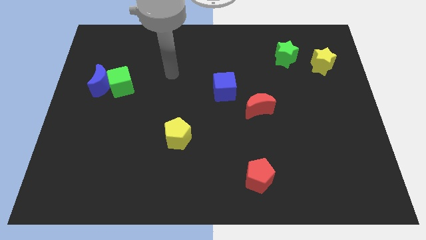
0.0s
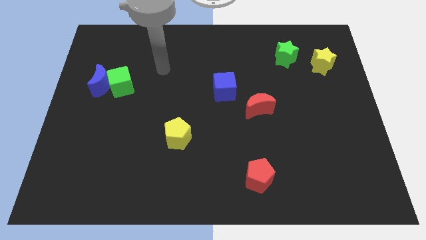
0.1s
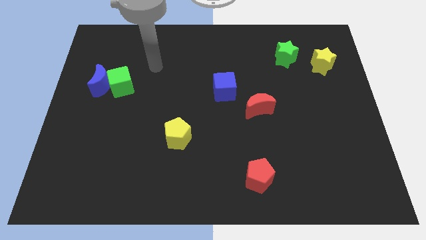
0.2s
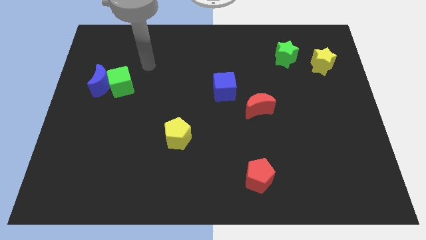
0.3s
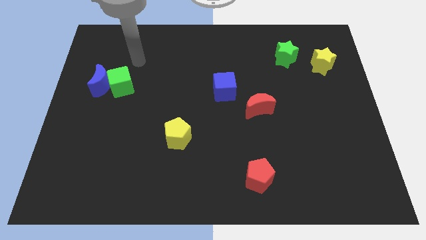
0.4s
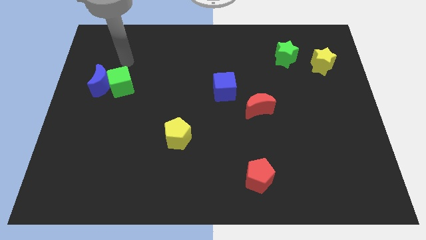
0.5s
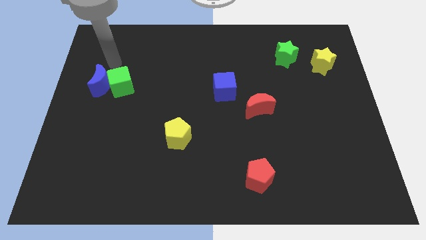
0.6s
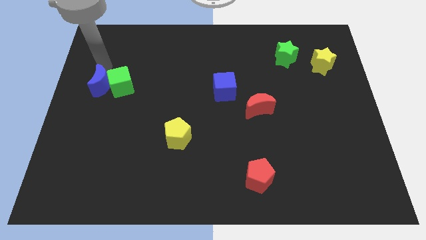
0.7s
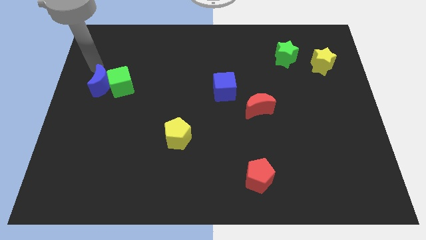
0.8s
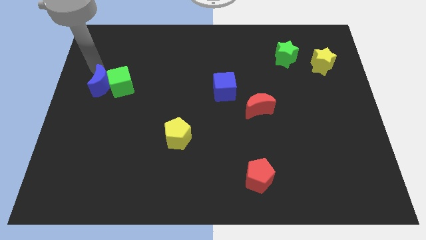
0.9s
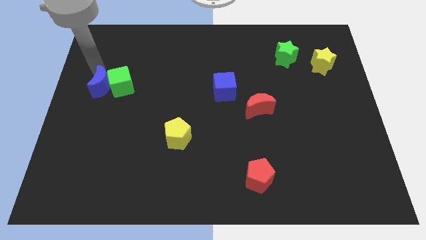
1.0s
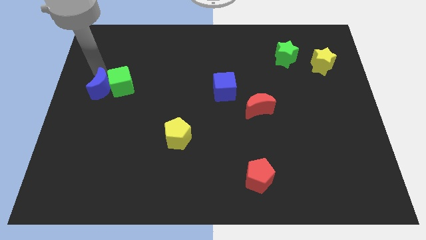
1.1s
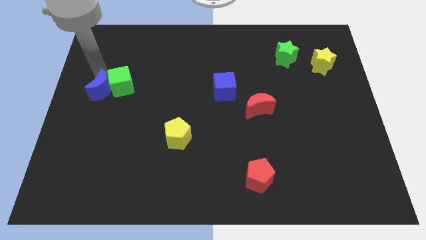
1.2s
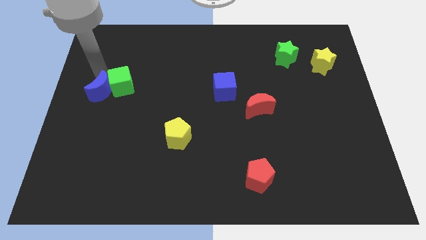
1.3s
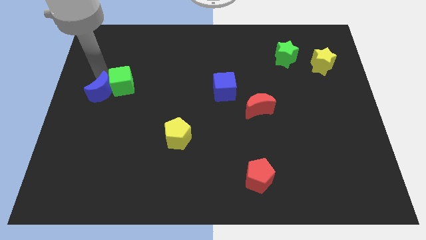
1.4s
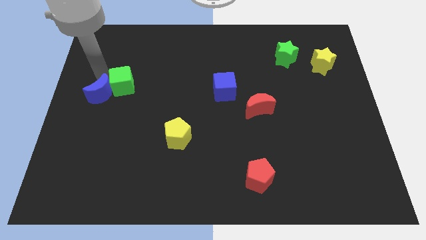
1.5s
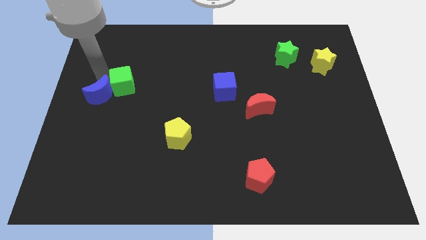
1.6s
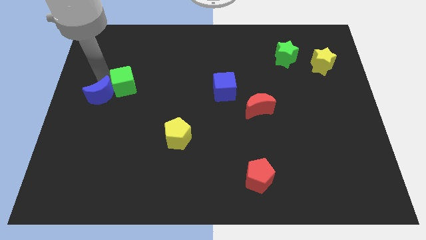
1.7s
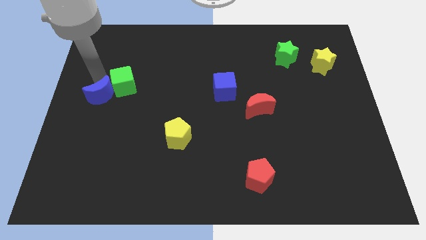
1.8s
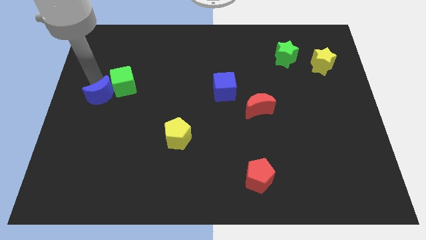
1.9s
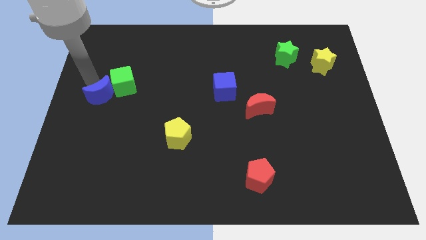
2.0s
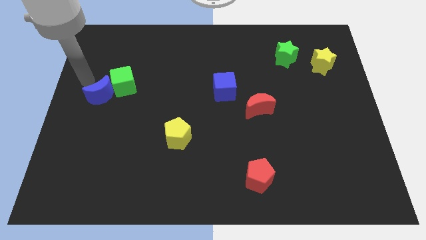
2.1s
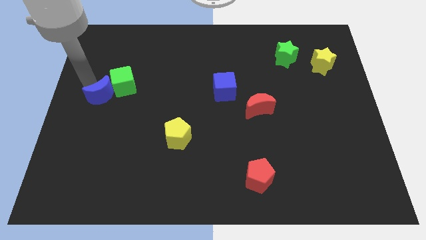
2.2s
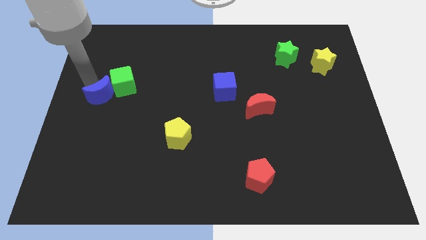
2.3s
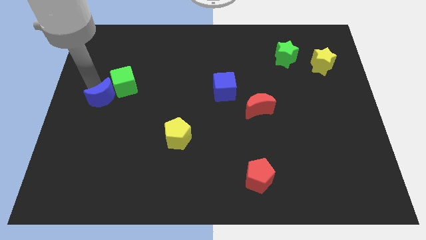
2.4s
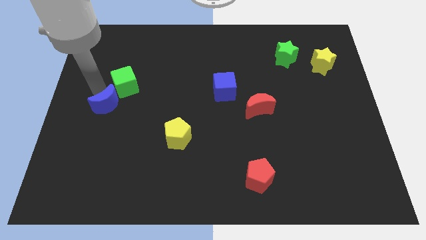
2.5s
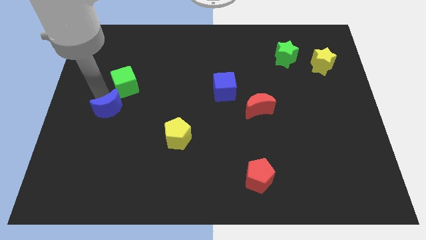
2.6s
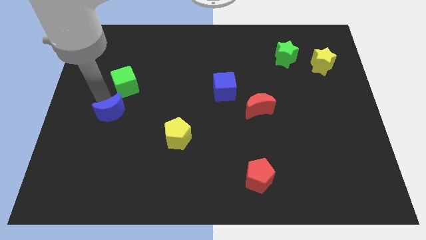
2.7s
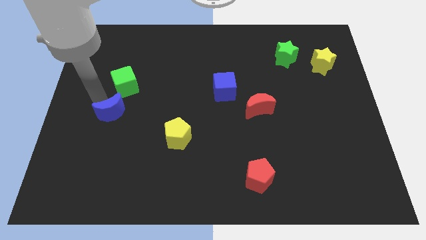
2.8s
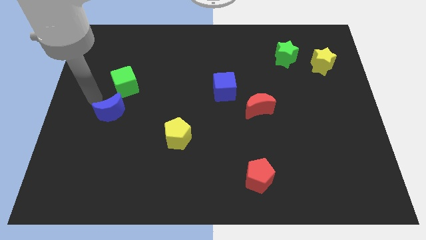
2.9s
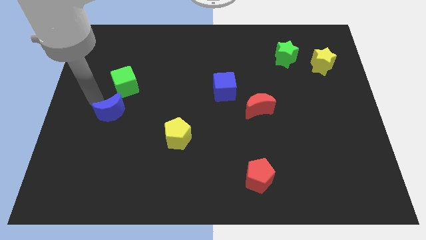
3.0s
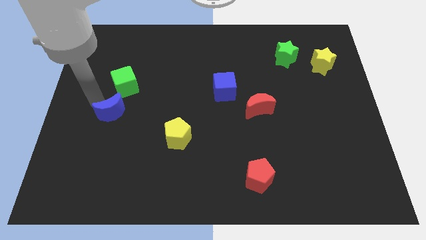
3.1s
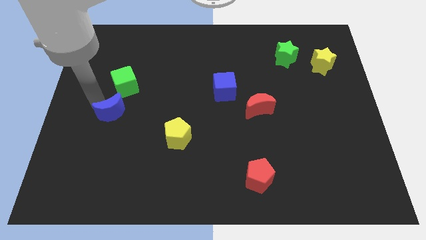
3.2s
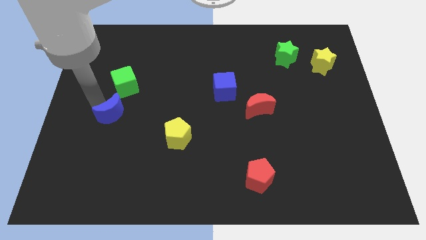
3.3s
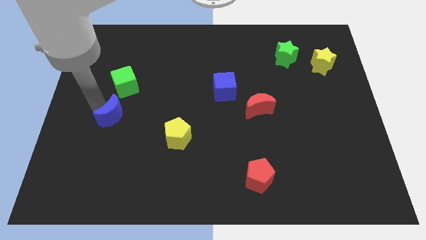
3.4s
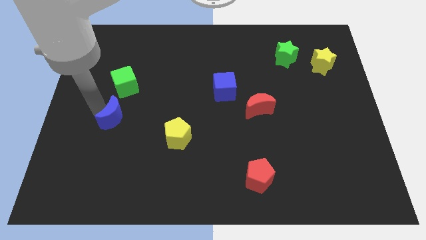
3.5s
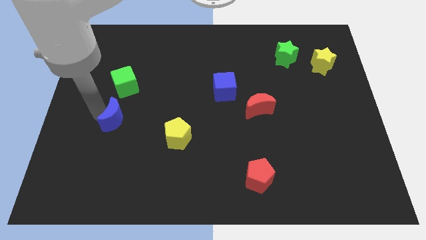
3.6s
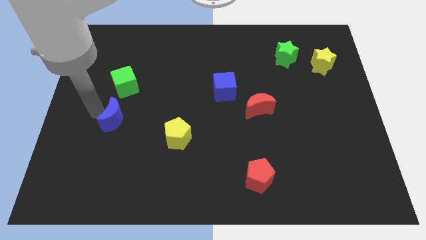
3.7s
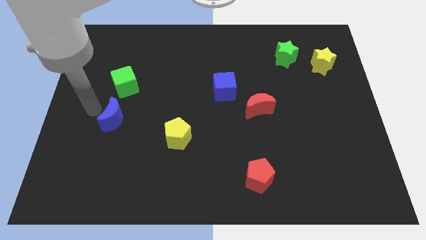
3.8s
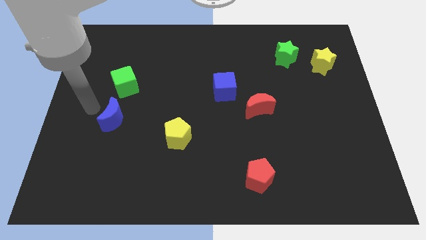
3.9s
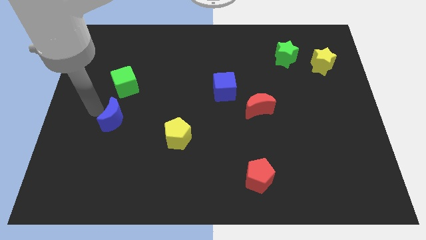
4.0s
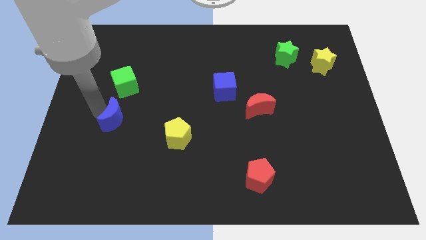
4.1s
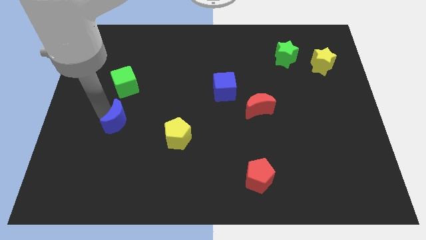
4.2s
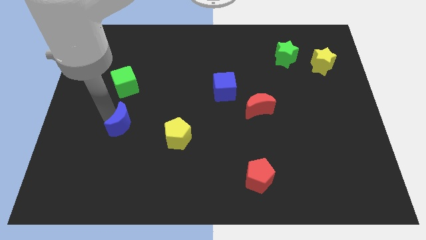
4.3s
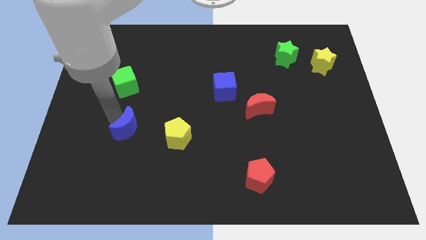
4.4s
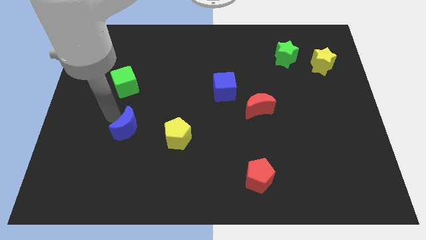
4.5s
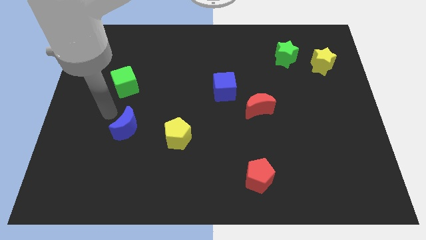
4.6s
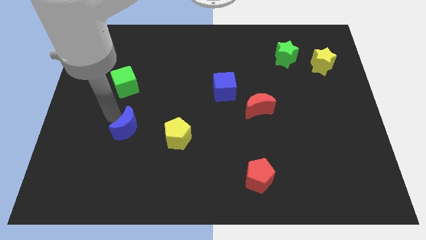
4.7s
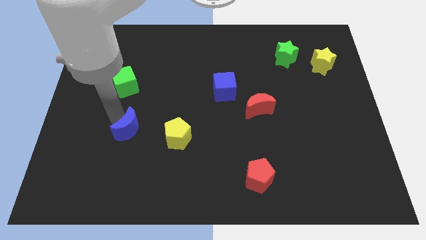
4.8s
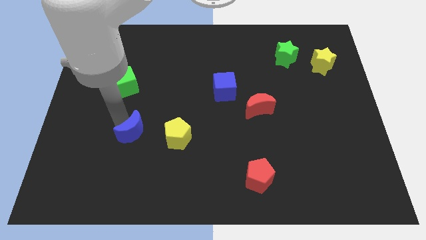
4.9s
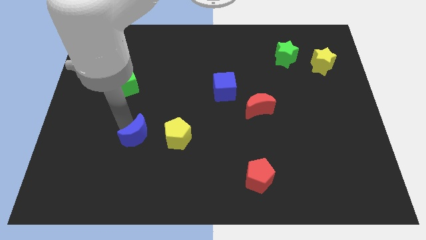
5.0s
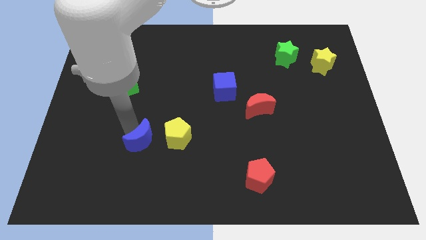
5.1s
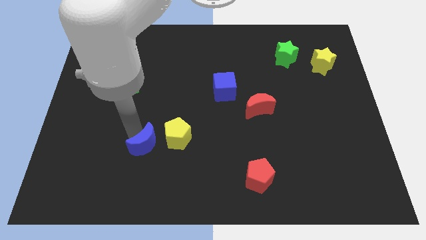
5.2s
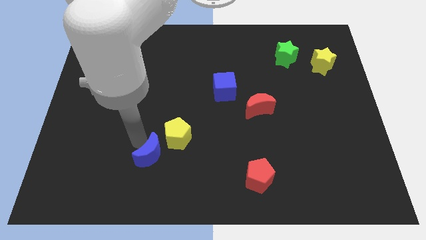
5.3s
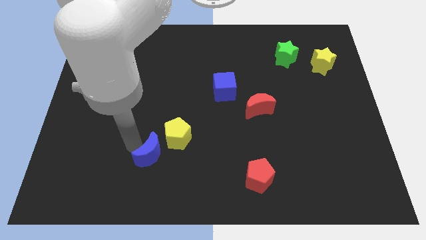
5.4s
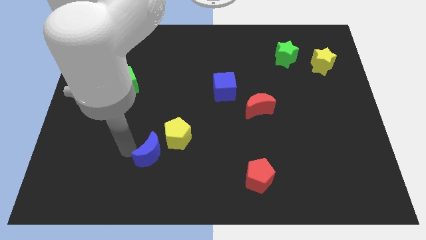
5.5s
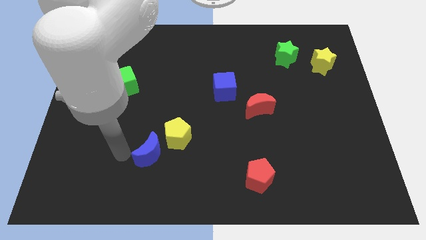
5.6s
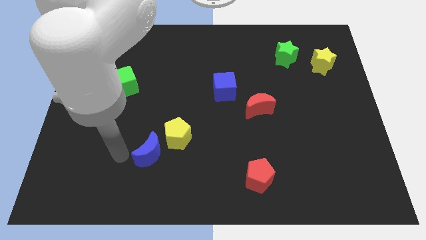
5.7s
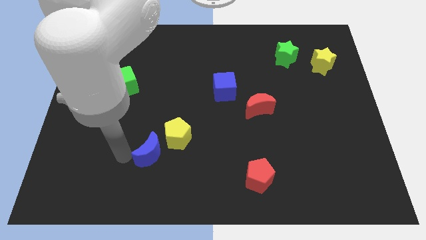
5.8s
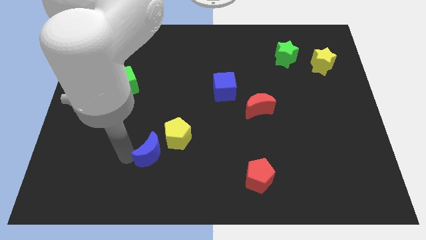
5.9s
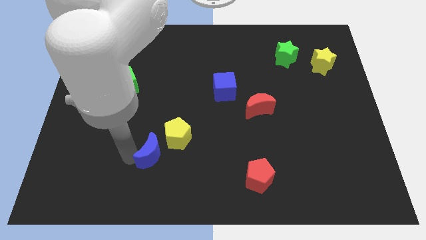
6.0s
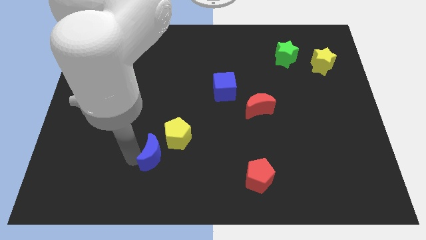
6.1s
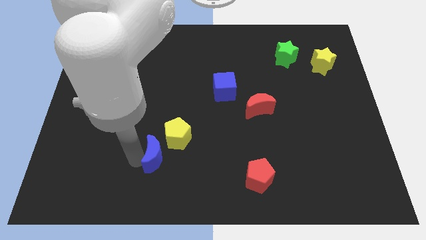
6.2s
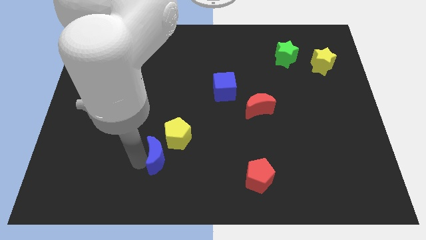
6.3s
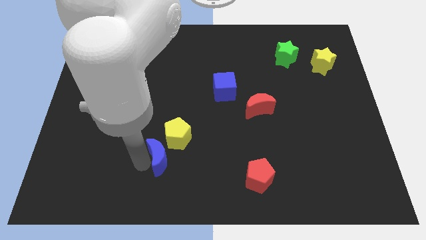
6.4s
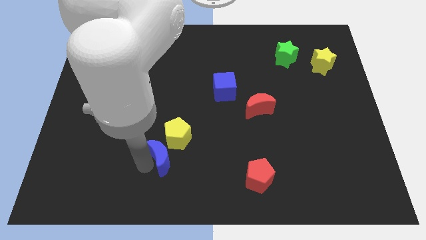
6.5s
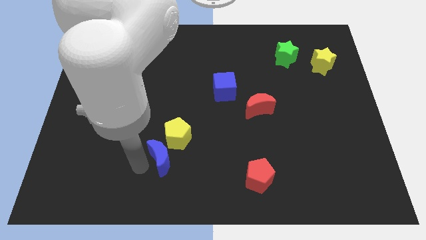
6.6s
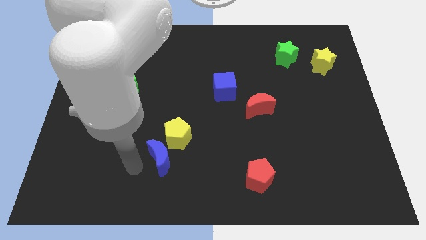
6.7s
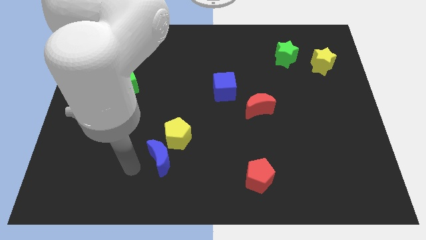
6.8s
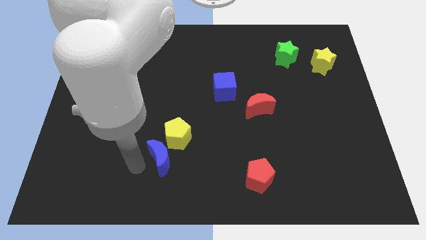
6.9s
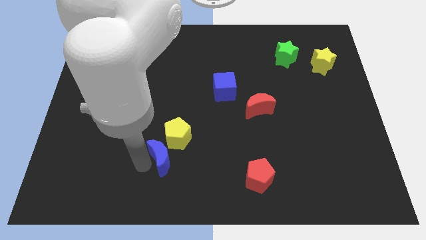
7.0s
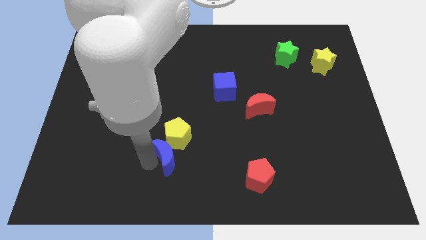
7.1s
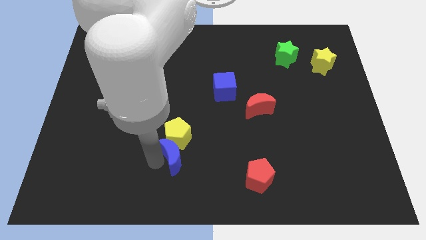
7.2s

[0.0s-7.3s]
push the blue moon to the bottom right of the yellow pentagon

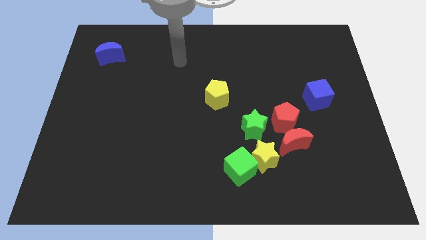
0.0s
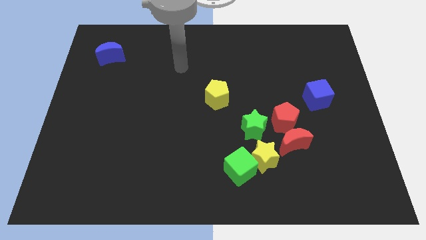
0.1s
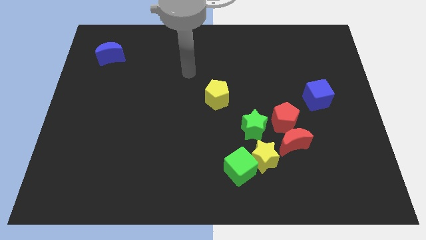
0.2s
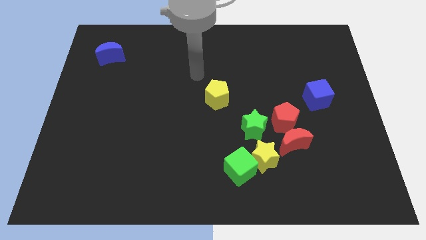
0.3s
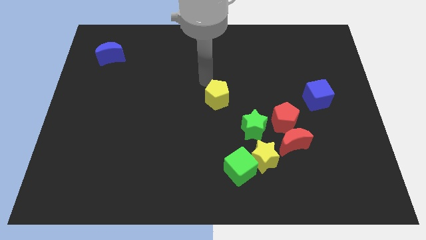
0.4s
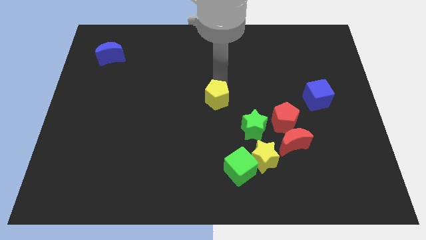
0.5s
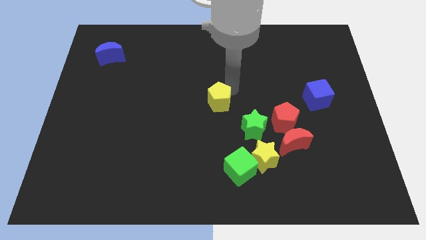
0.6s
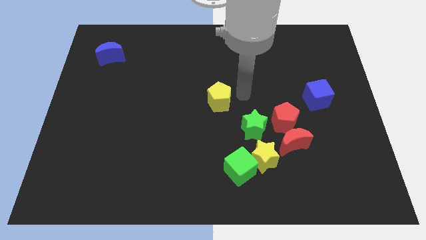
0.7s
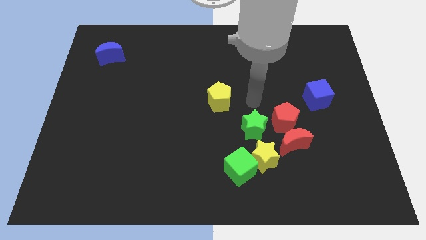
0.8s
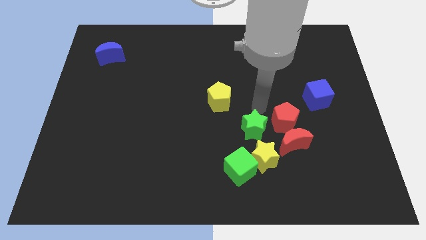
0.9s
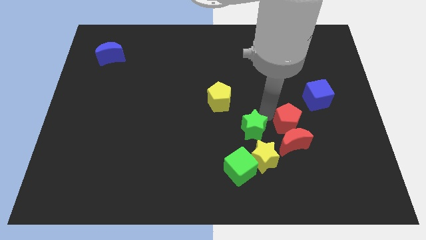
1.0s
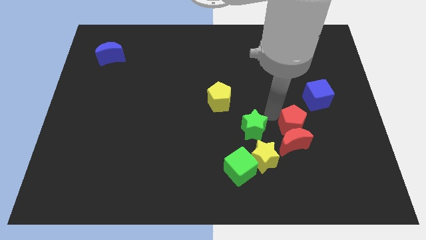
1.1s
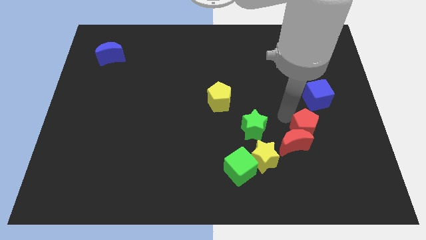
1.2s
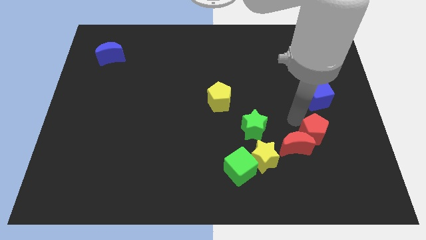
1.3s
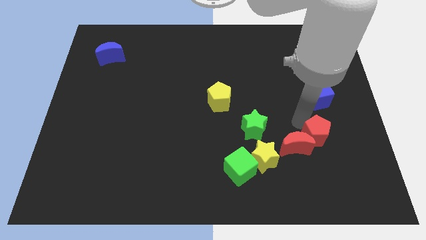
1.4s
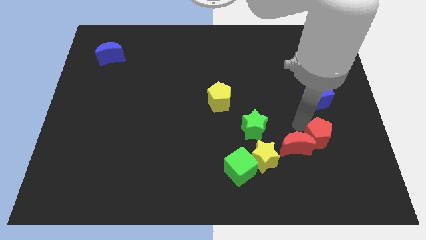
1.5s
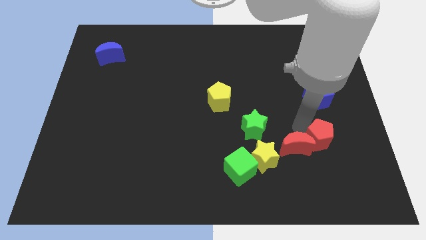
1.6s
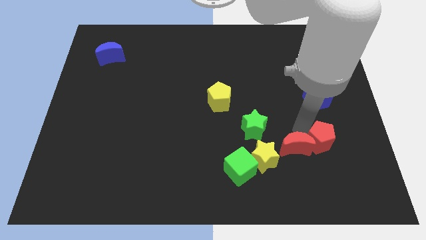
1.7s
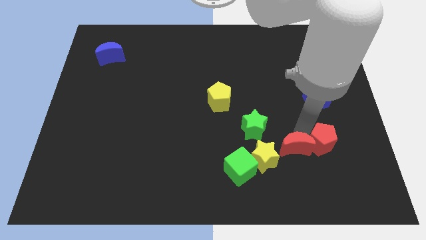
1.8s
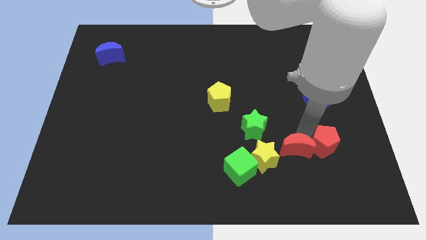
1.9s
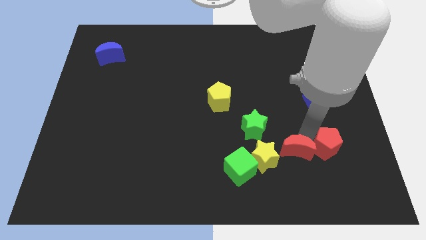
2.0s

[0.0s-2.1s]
push the red moon just right of the green cube
